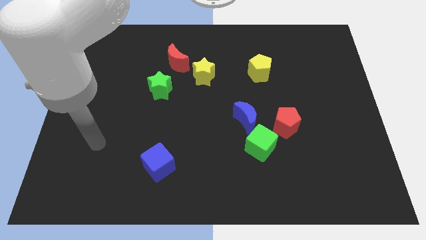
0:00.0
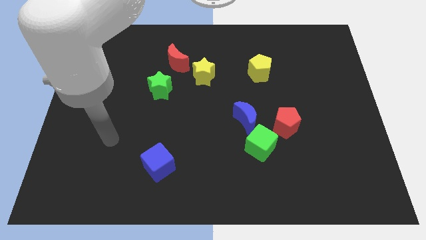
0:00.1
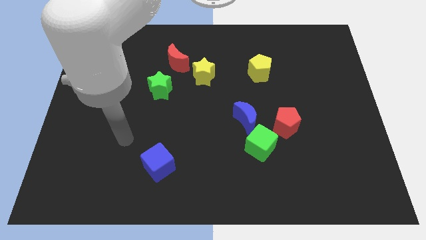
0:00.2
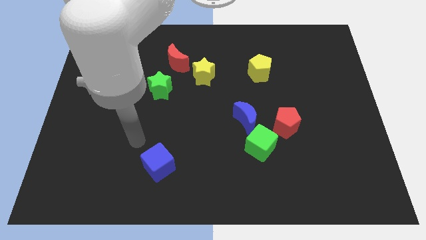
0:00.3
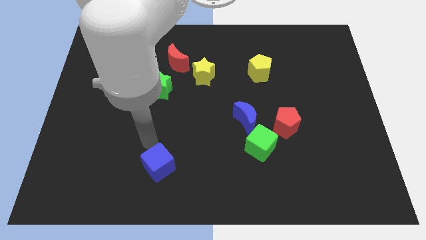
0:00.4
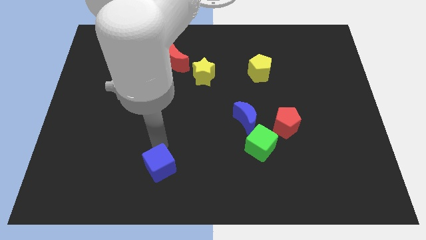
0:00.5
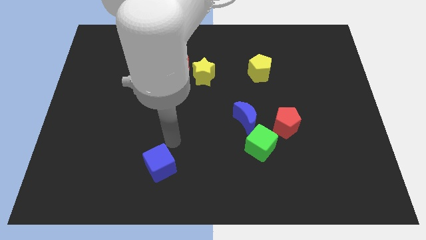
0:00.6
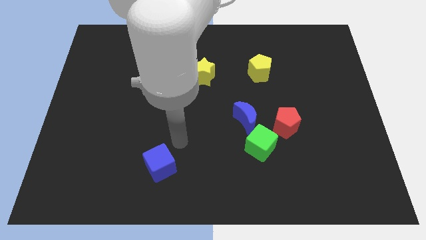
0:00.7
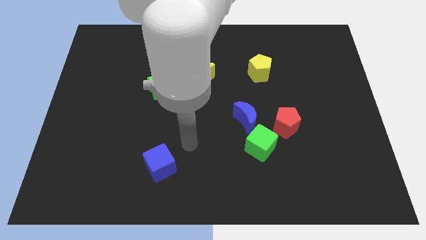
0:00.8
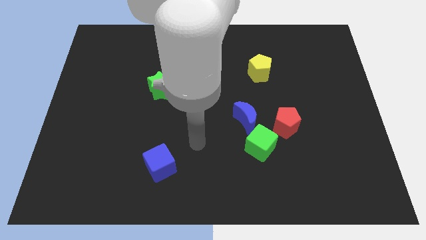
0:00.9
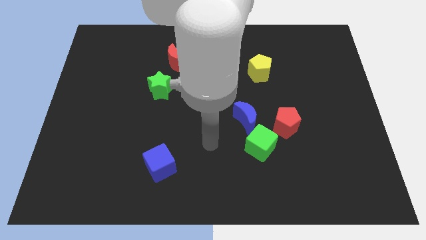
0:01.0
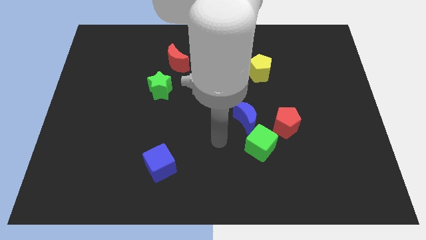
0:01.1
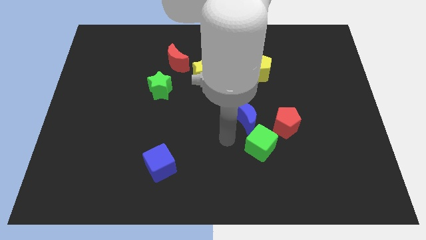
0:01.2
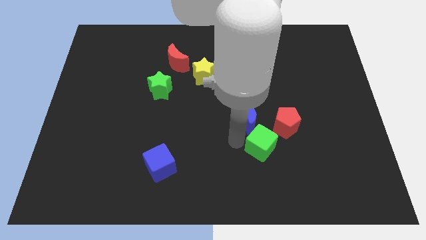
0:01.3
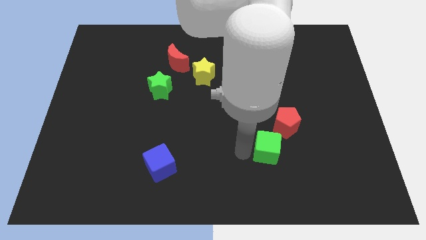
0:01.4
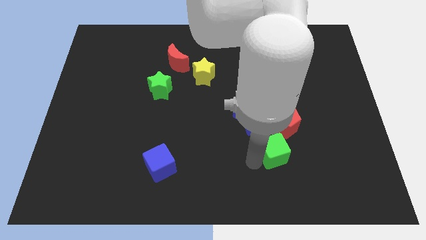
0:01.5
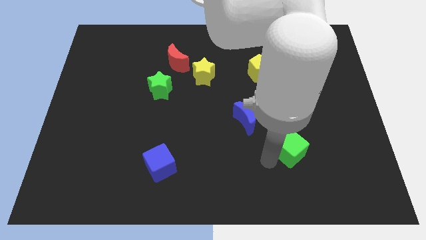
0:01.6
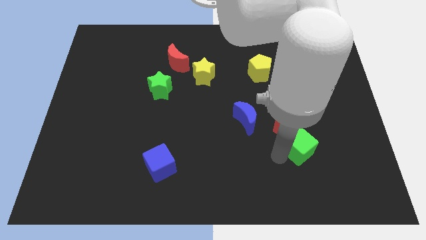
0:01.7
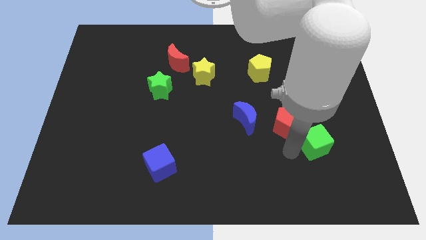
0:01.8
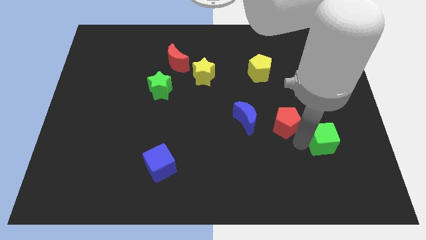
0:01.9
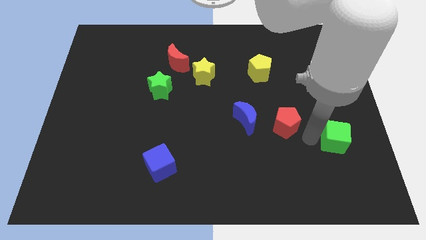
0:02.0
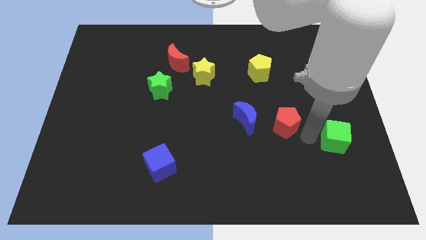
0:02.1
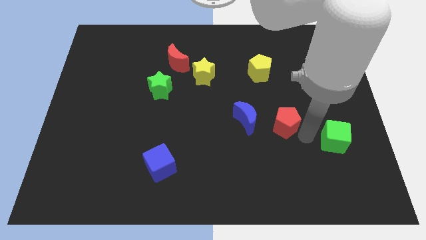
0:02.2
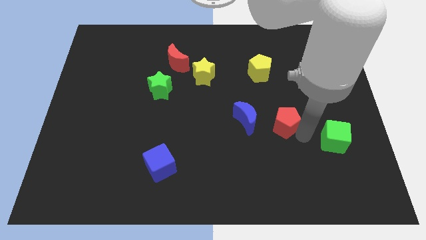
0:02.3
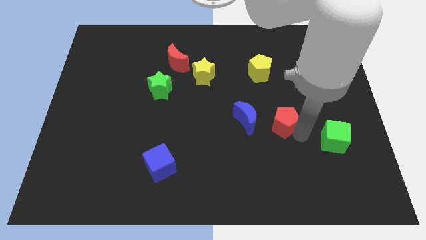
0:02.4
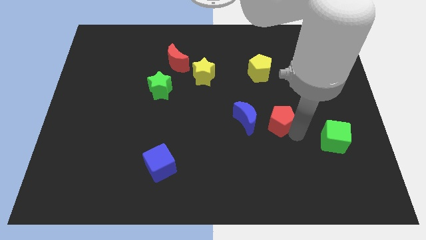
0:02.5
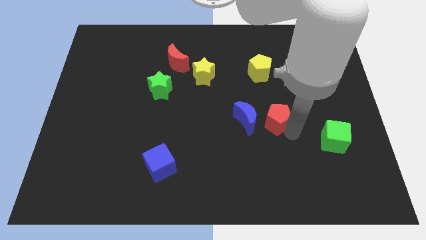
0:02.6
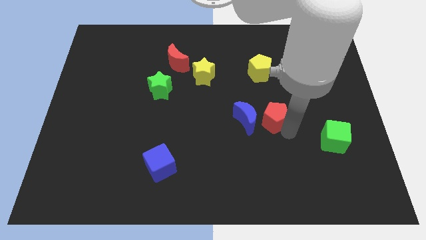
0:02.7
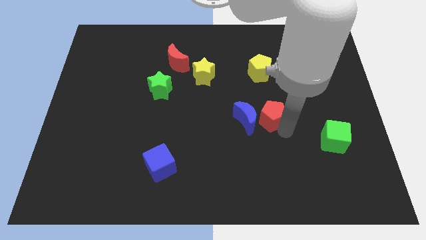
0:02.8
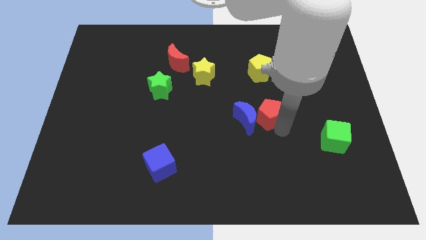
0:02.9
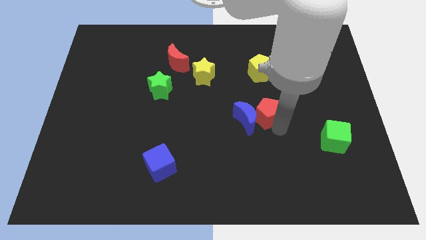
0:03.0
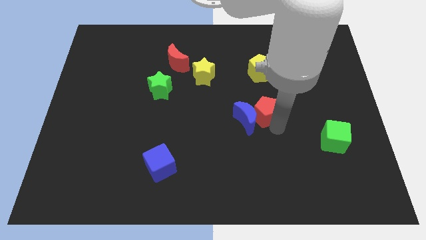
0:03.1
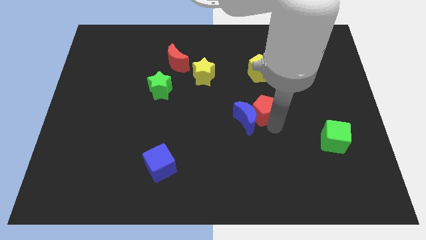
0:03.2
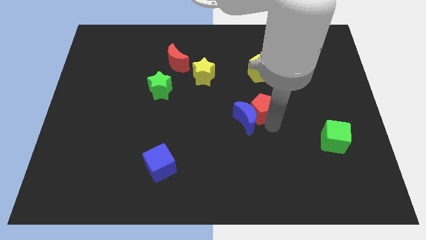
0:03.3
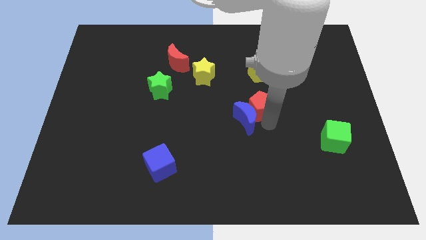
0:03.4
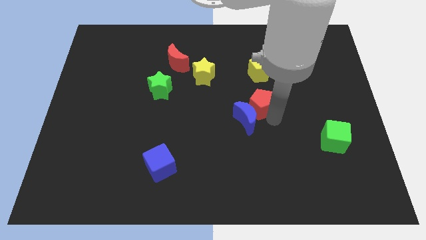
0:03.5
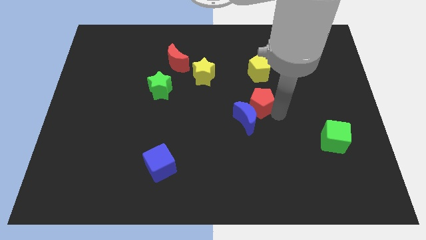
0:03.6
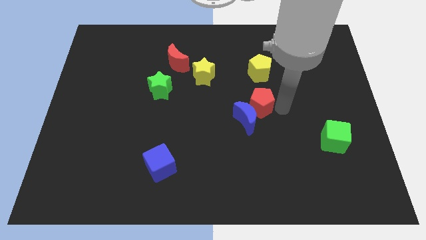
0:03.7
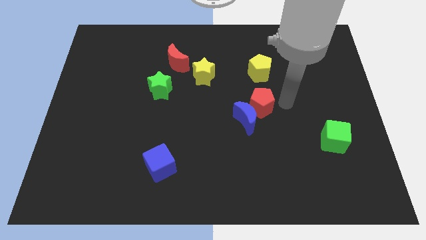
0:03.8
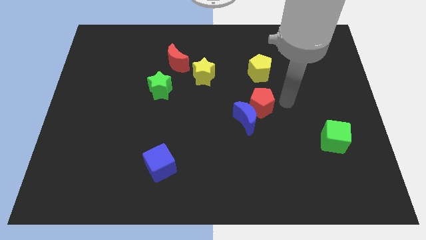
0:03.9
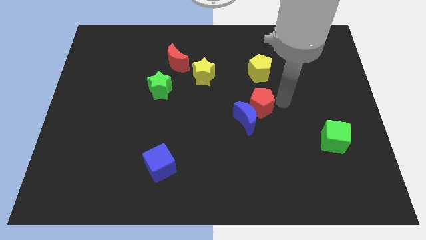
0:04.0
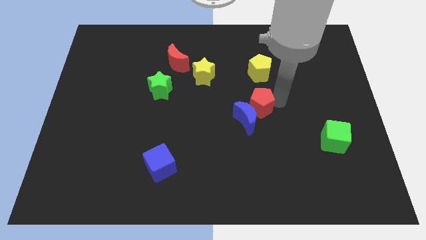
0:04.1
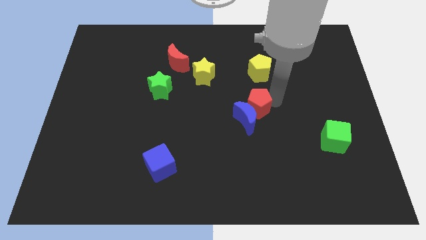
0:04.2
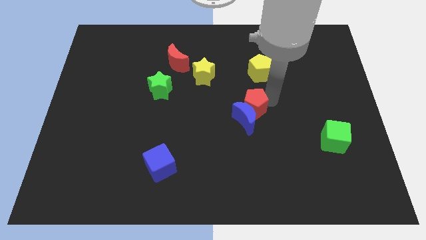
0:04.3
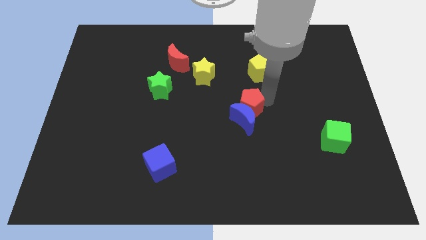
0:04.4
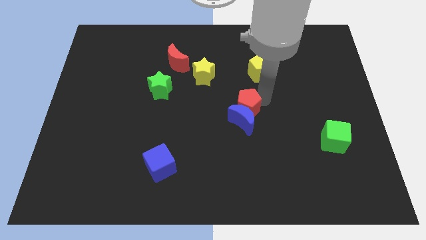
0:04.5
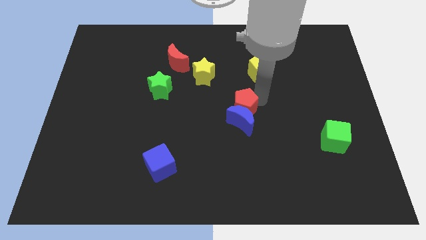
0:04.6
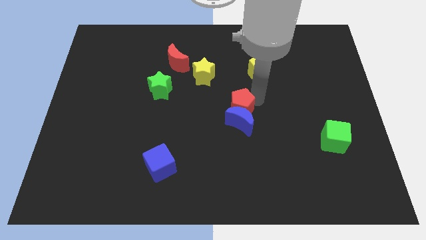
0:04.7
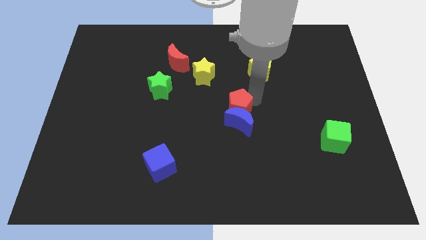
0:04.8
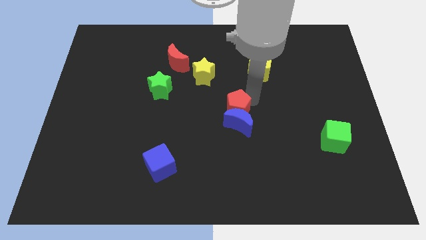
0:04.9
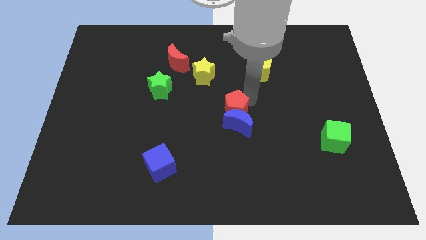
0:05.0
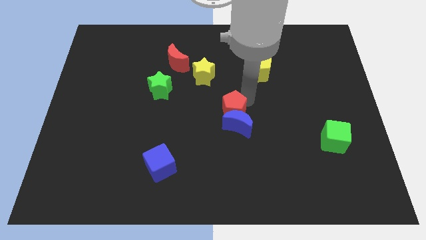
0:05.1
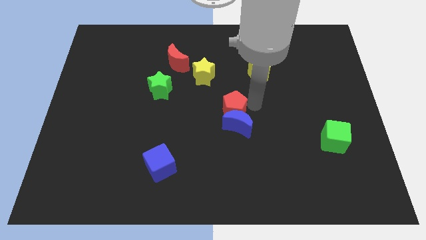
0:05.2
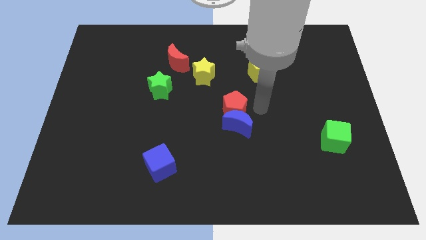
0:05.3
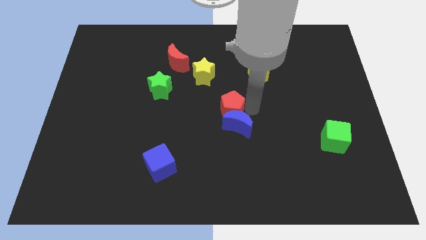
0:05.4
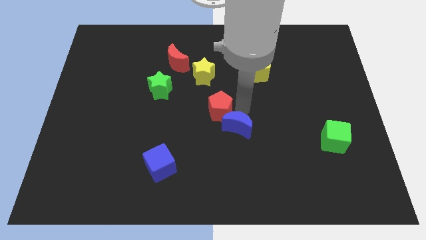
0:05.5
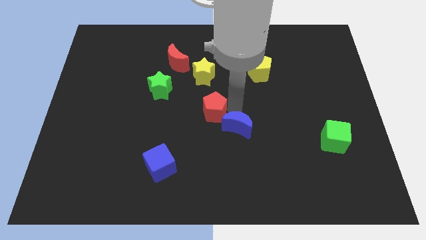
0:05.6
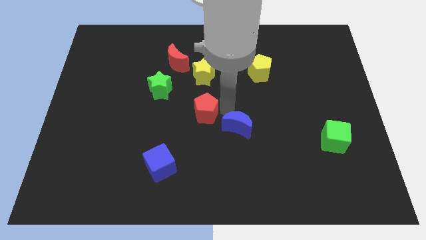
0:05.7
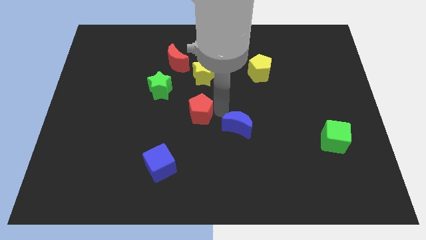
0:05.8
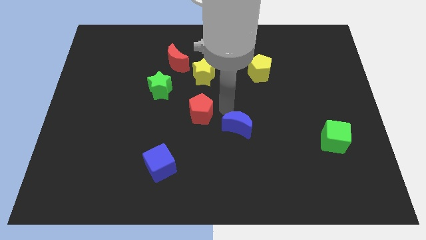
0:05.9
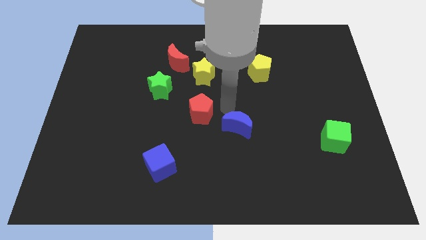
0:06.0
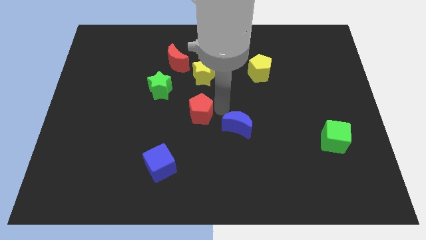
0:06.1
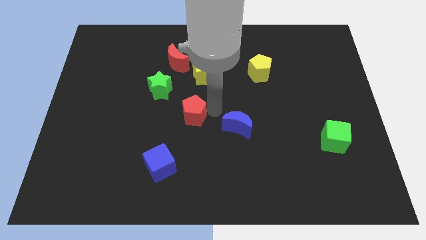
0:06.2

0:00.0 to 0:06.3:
push the red pentagon left

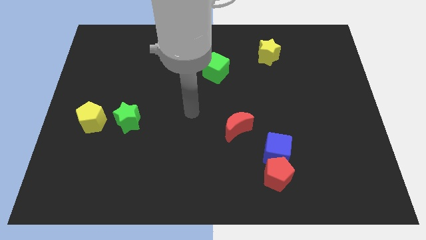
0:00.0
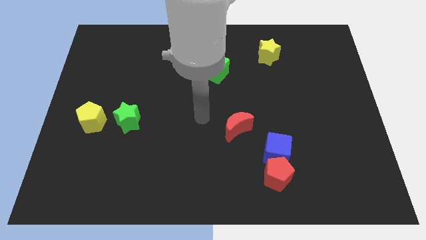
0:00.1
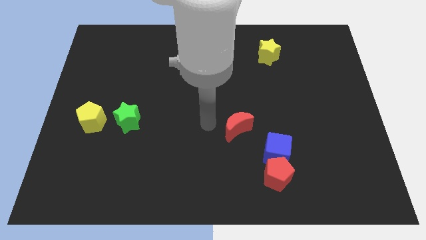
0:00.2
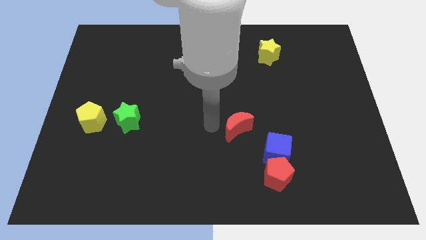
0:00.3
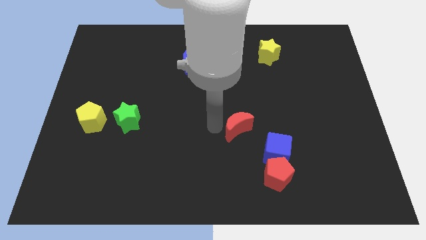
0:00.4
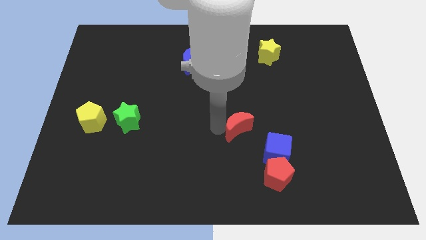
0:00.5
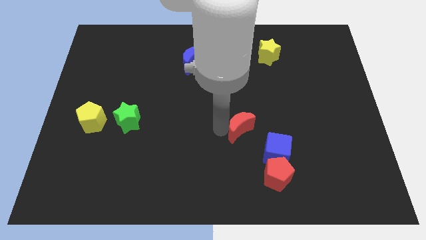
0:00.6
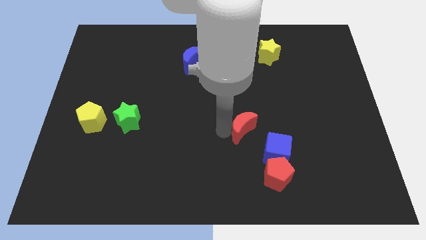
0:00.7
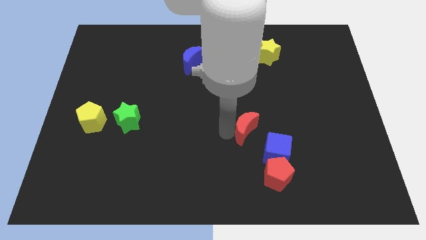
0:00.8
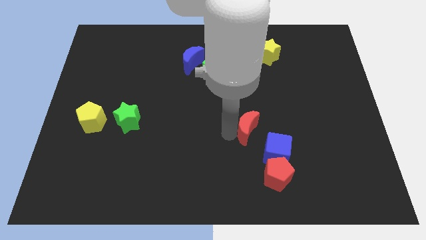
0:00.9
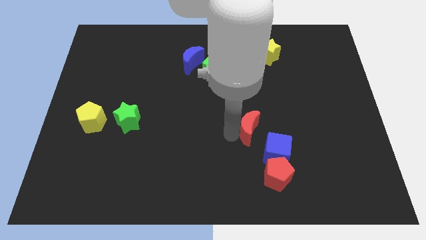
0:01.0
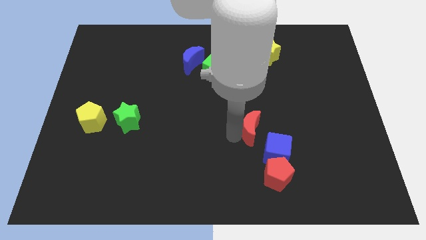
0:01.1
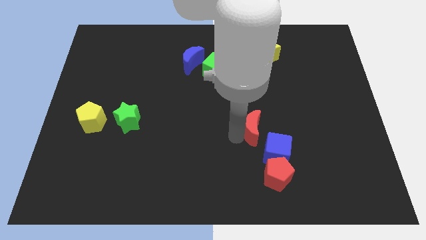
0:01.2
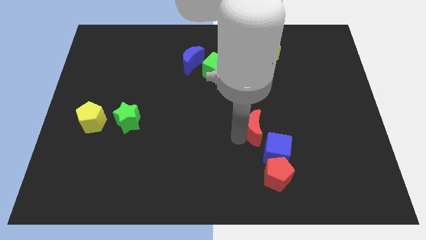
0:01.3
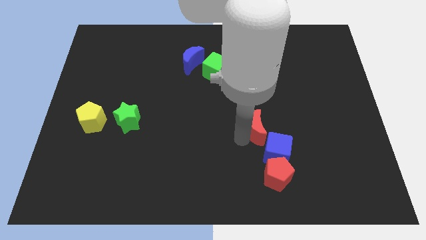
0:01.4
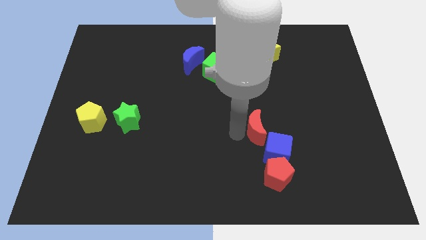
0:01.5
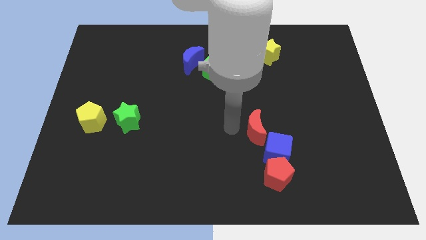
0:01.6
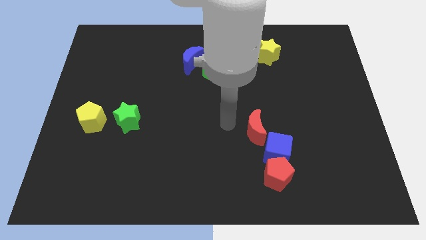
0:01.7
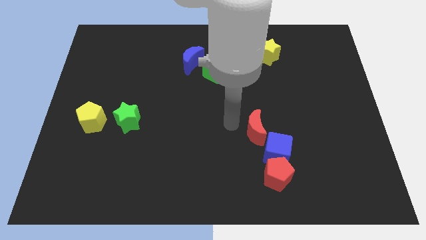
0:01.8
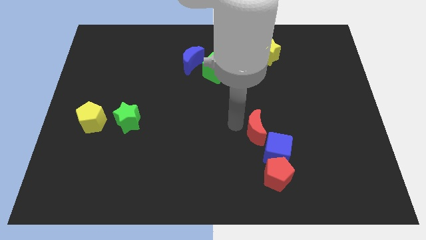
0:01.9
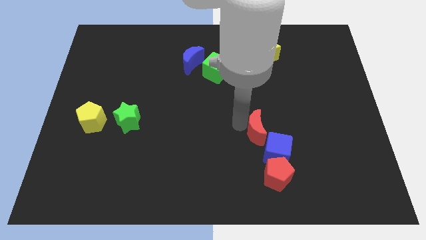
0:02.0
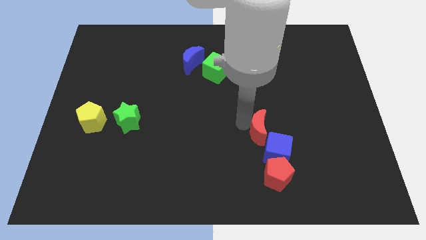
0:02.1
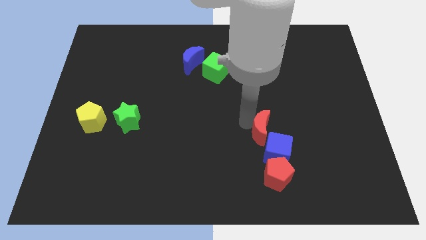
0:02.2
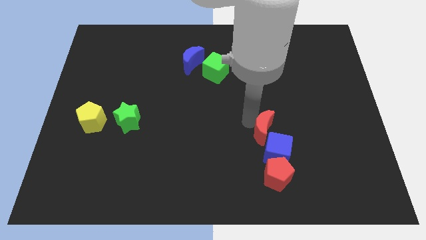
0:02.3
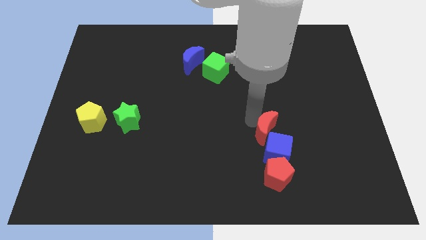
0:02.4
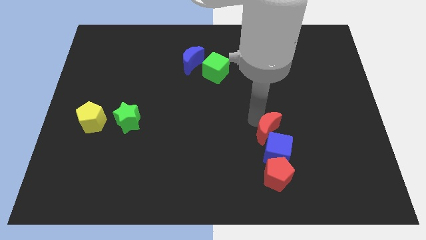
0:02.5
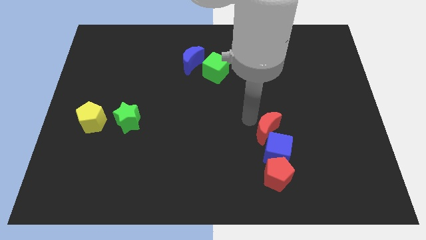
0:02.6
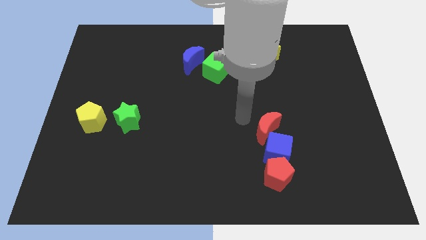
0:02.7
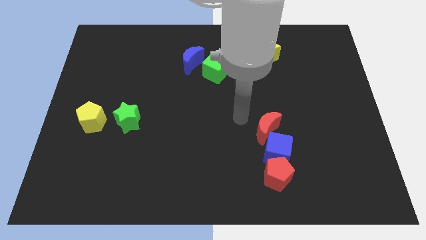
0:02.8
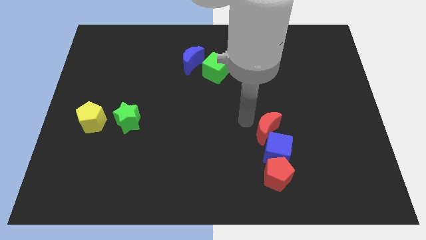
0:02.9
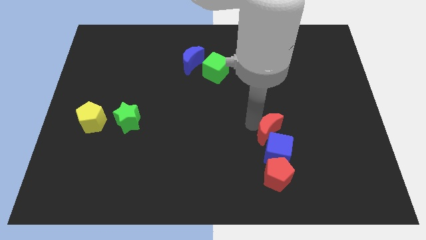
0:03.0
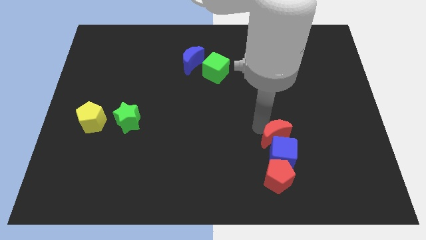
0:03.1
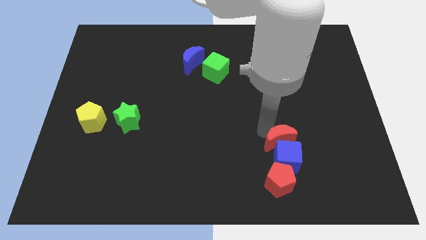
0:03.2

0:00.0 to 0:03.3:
push the red moon a little down and right
